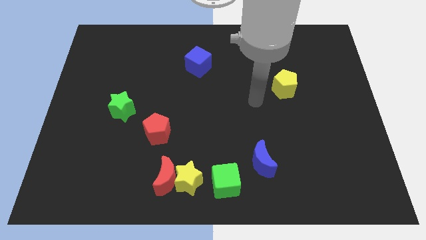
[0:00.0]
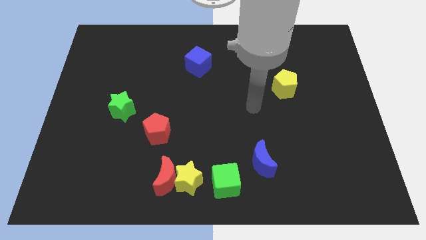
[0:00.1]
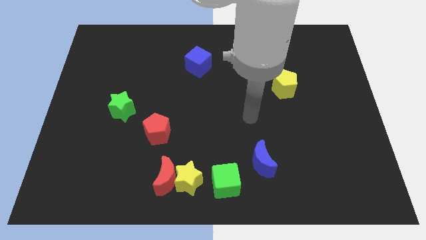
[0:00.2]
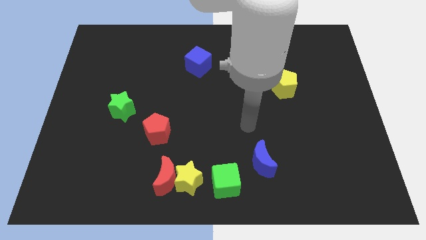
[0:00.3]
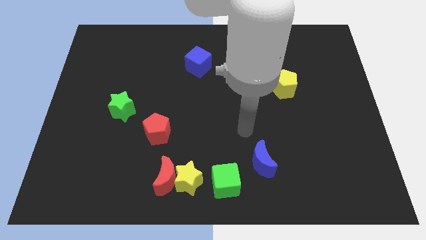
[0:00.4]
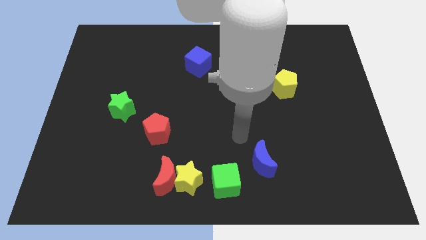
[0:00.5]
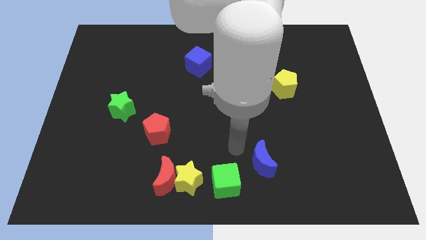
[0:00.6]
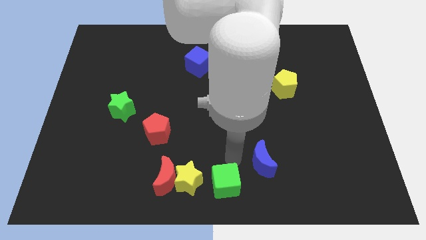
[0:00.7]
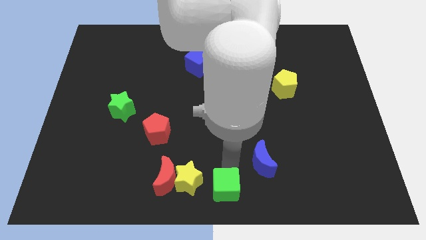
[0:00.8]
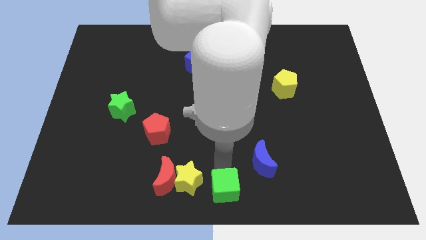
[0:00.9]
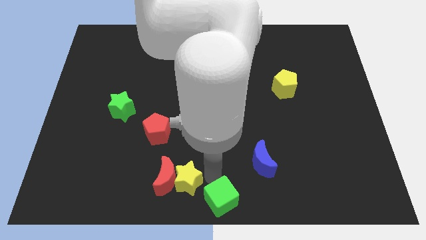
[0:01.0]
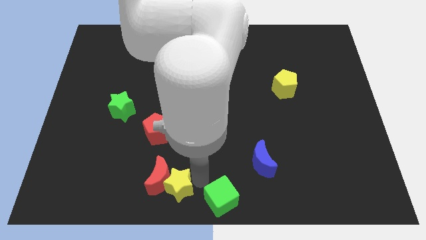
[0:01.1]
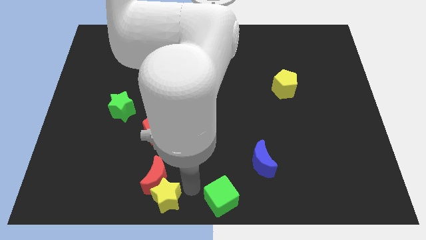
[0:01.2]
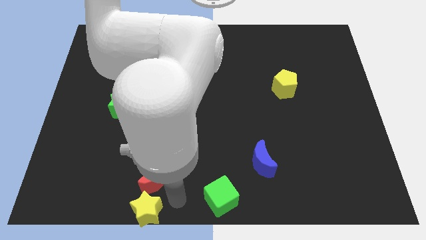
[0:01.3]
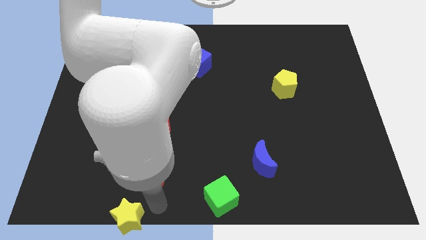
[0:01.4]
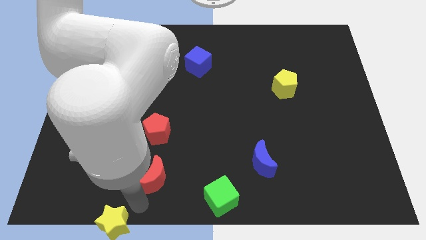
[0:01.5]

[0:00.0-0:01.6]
move the red moon away from the yellow star

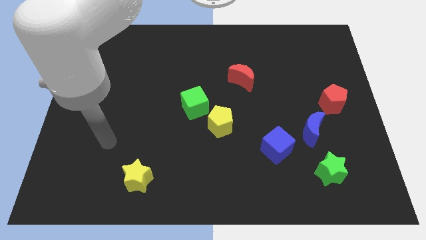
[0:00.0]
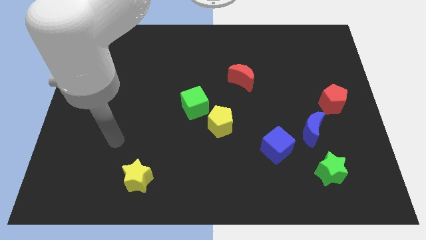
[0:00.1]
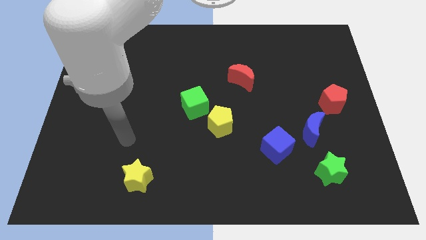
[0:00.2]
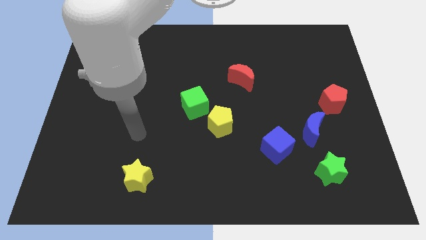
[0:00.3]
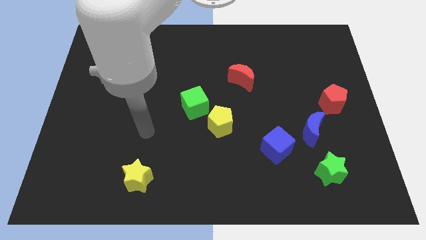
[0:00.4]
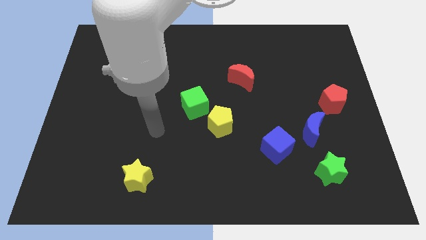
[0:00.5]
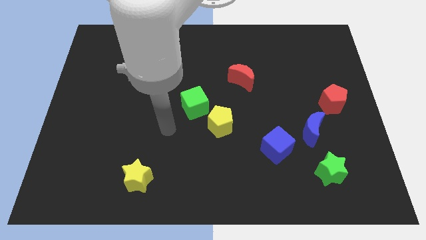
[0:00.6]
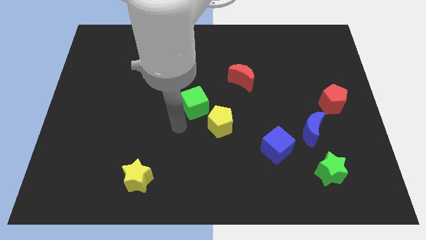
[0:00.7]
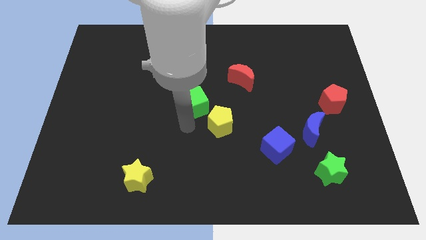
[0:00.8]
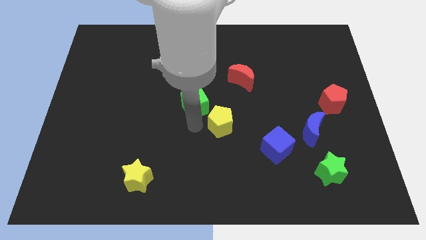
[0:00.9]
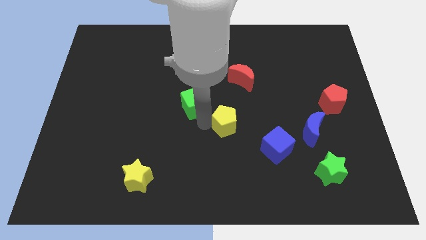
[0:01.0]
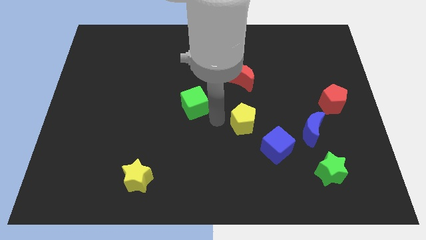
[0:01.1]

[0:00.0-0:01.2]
move the green cube away from the yellow pentagon

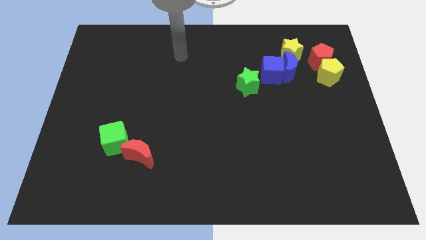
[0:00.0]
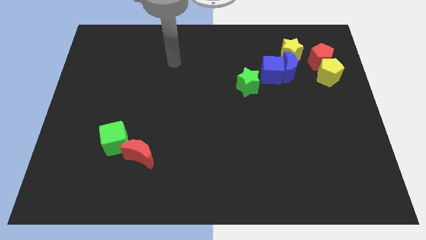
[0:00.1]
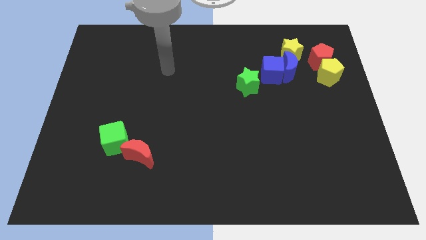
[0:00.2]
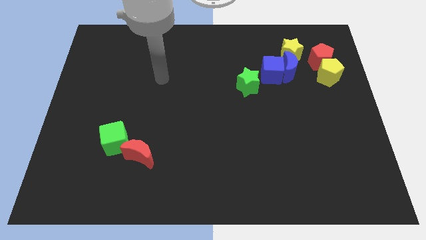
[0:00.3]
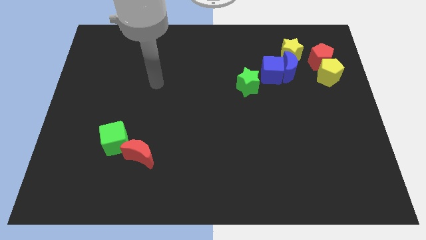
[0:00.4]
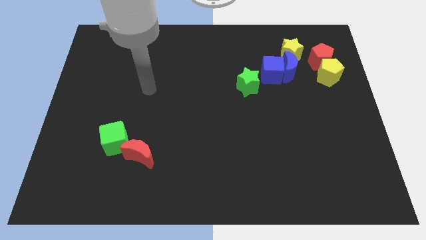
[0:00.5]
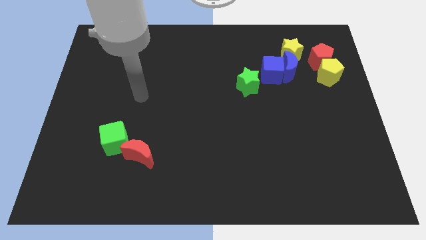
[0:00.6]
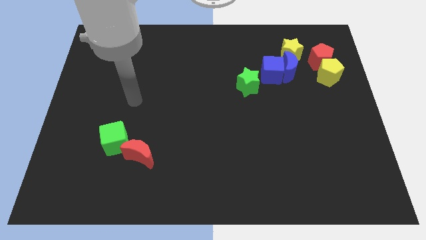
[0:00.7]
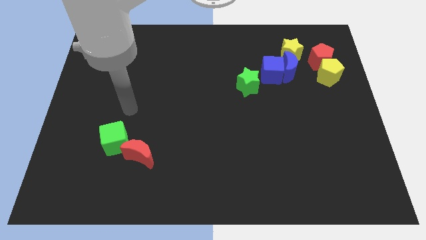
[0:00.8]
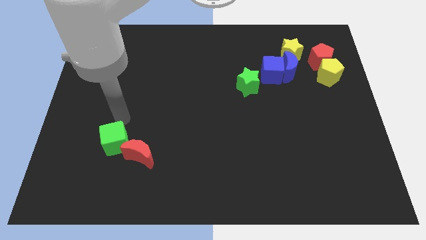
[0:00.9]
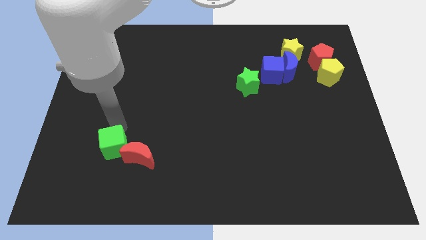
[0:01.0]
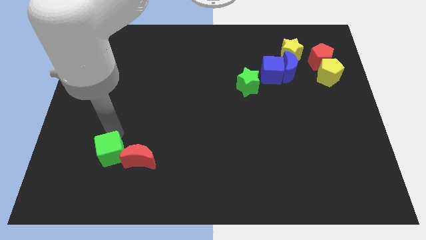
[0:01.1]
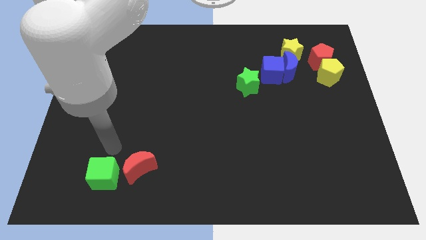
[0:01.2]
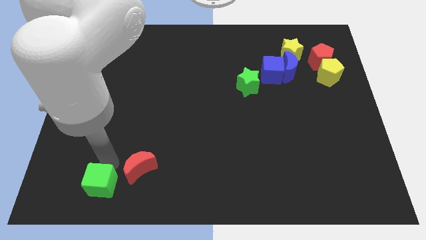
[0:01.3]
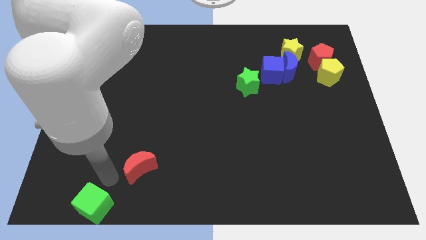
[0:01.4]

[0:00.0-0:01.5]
separate the red moon from the green cube

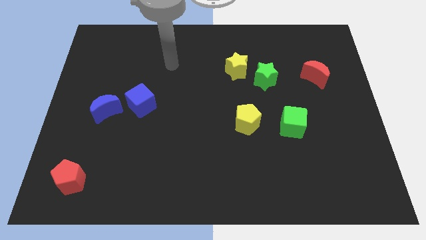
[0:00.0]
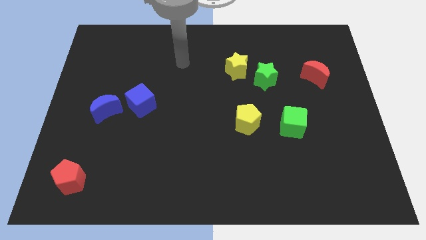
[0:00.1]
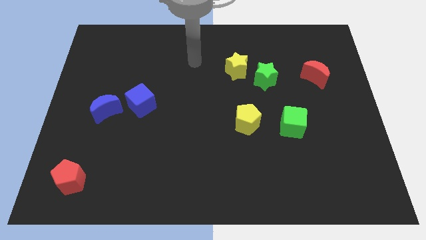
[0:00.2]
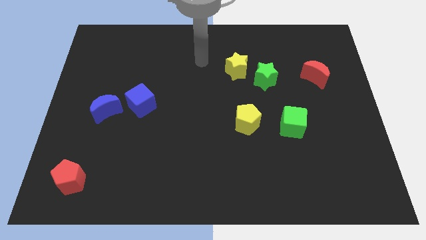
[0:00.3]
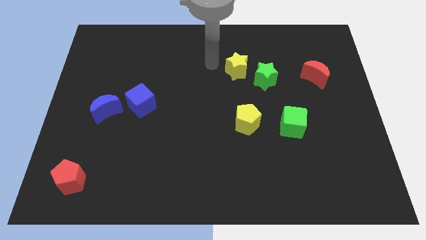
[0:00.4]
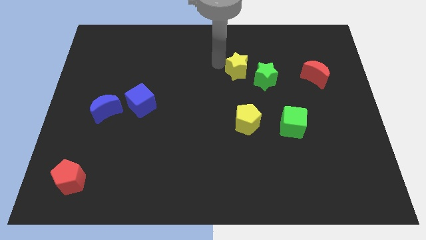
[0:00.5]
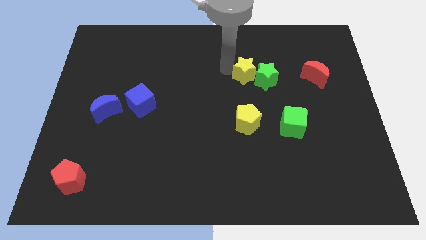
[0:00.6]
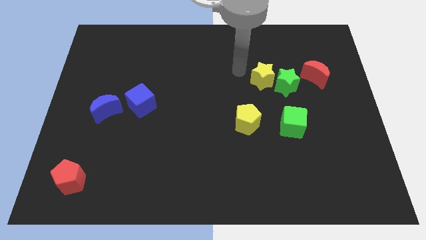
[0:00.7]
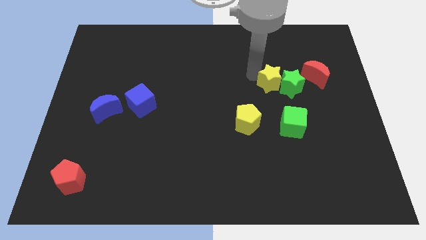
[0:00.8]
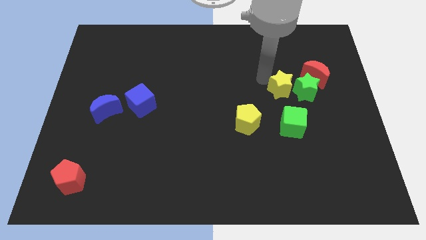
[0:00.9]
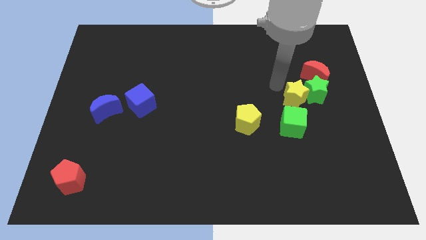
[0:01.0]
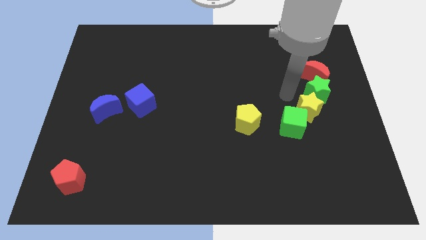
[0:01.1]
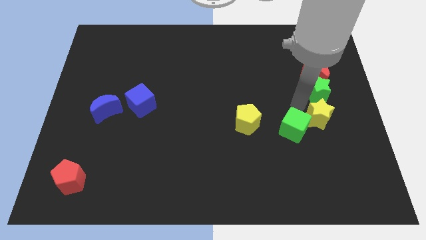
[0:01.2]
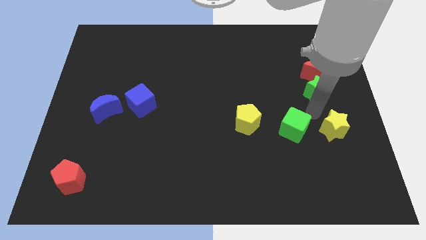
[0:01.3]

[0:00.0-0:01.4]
move the green star away from the yellow star

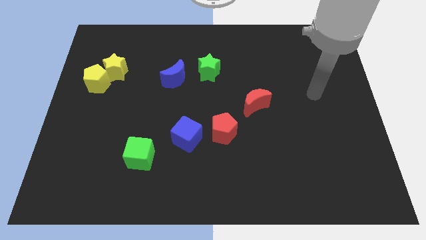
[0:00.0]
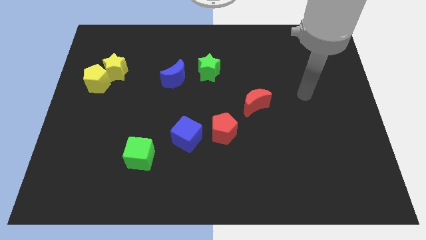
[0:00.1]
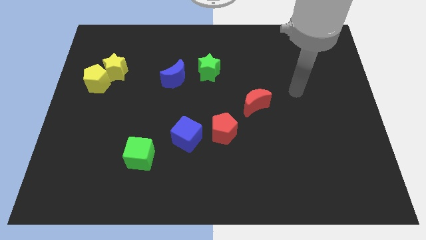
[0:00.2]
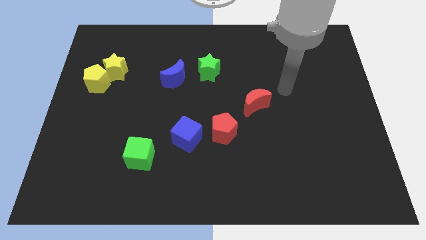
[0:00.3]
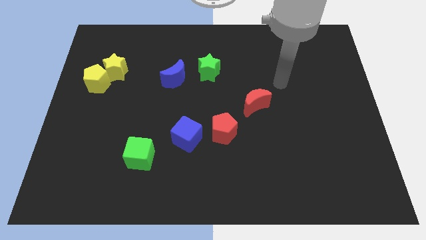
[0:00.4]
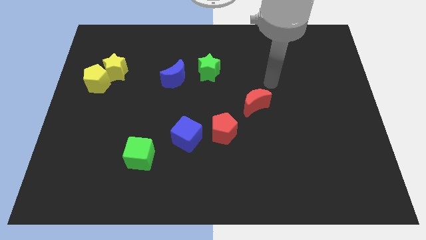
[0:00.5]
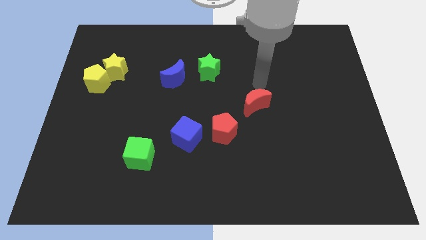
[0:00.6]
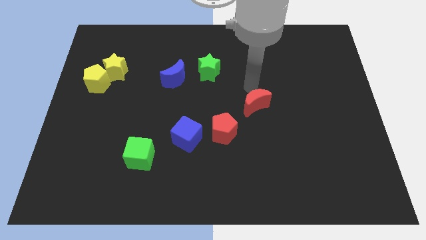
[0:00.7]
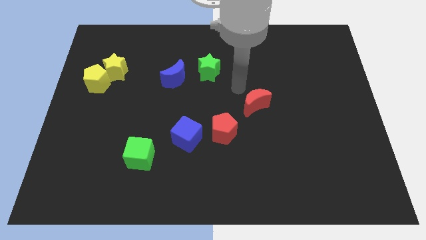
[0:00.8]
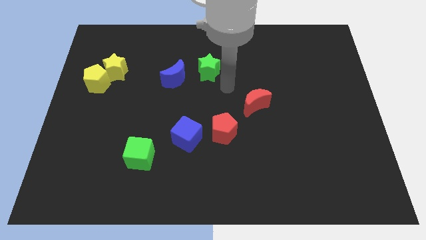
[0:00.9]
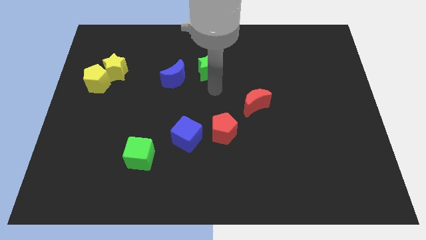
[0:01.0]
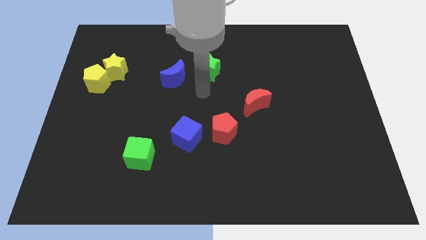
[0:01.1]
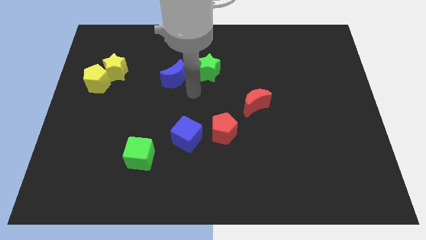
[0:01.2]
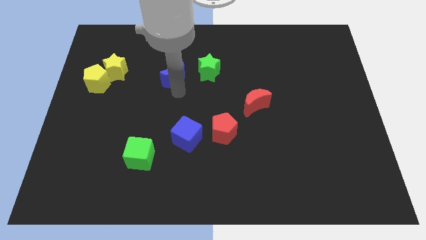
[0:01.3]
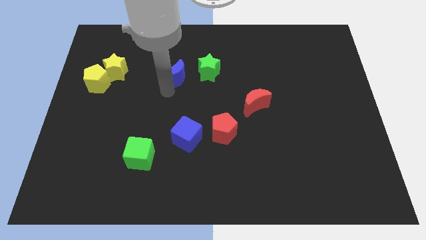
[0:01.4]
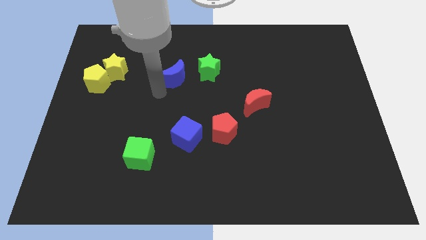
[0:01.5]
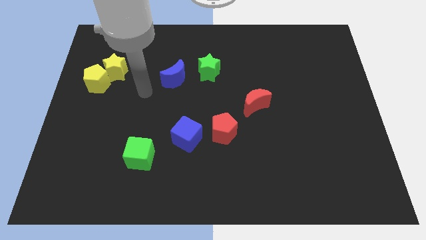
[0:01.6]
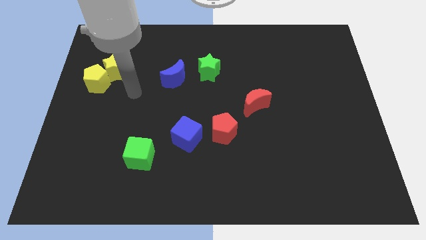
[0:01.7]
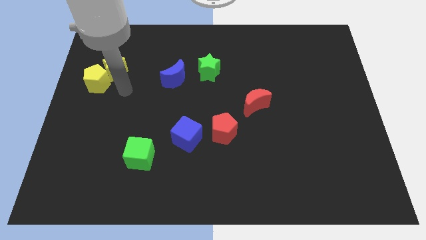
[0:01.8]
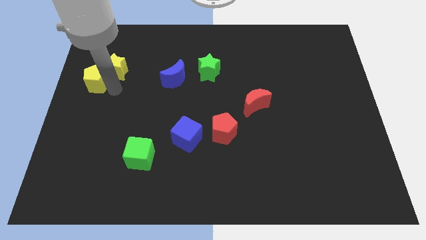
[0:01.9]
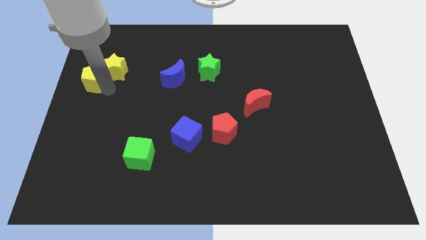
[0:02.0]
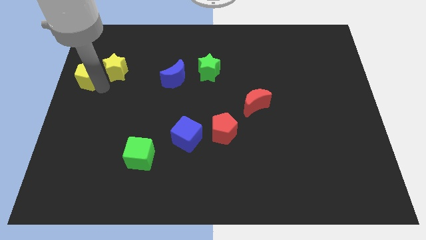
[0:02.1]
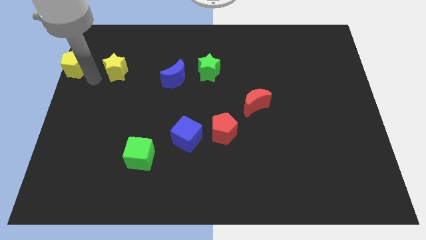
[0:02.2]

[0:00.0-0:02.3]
move the yellow star away from the yellow pentagon

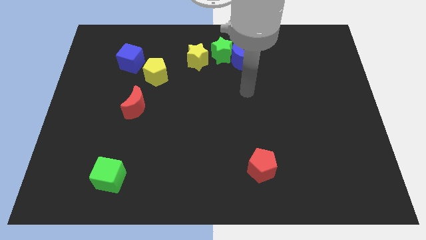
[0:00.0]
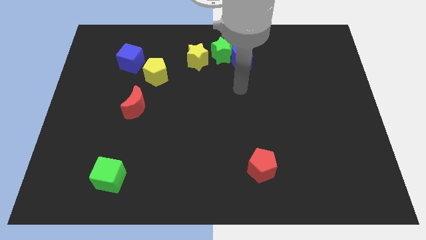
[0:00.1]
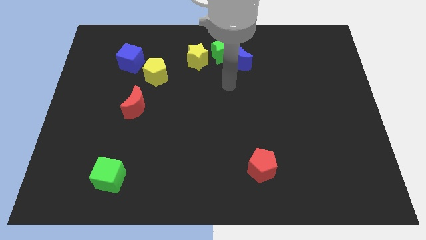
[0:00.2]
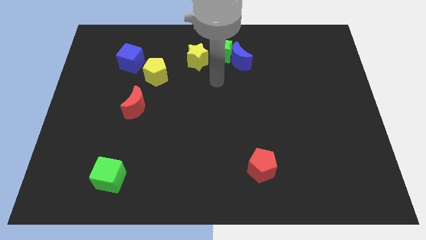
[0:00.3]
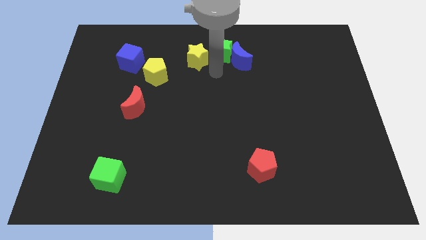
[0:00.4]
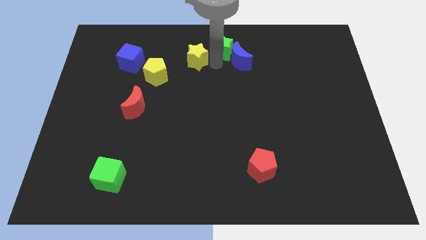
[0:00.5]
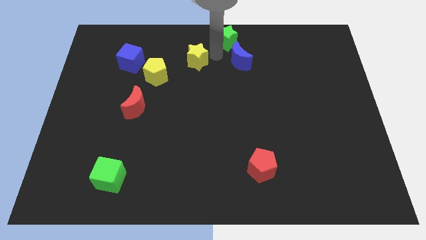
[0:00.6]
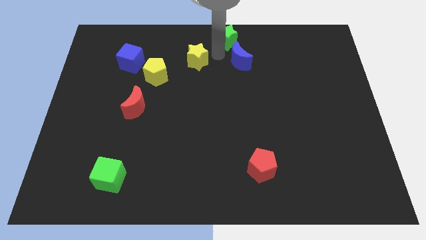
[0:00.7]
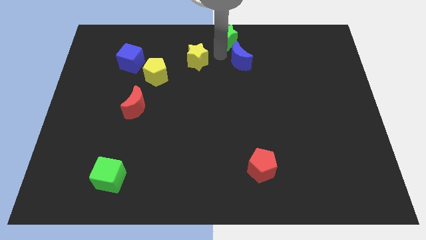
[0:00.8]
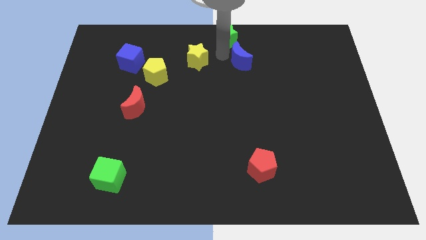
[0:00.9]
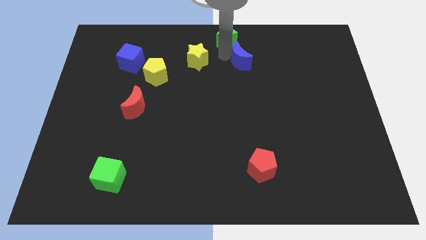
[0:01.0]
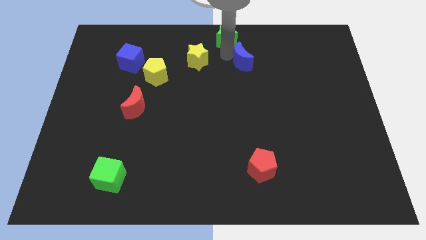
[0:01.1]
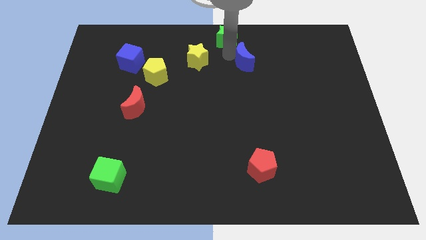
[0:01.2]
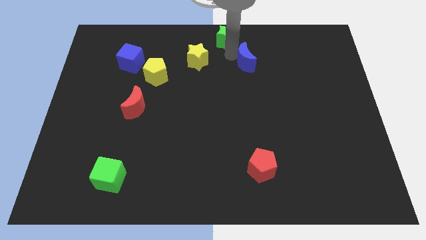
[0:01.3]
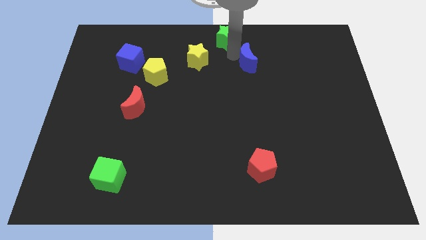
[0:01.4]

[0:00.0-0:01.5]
move the blue moon away from the green star
